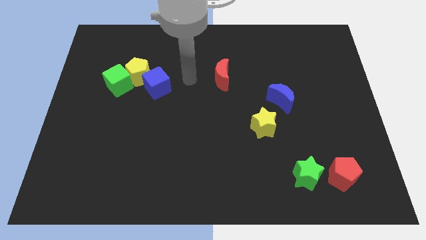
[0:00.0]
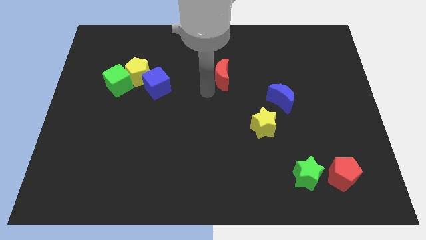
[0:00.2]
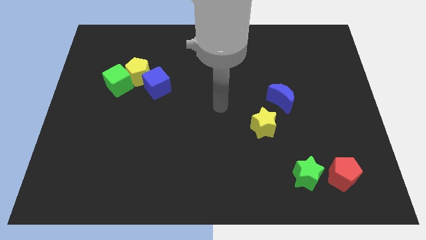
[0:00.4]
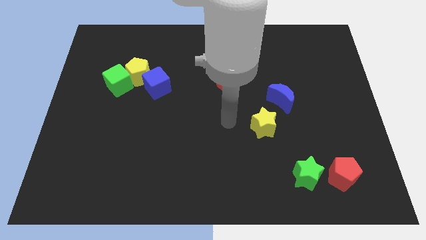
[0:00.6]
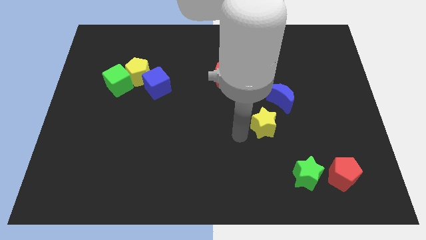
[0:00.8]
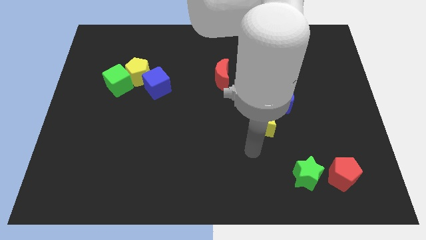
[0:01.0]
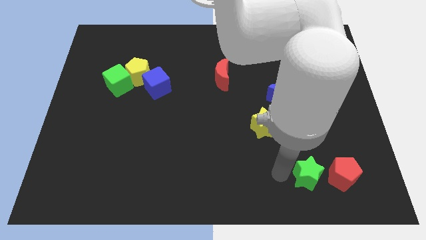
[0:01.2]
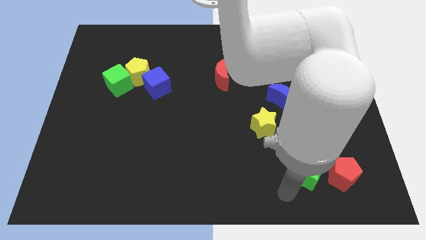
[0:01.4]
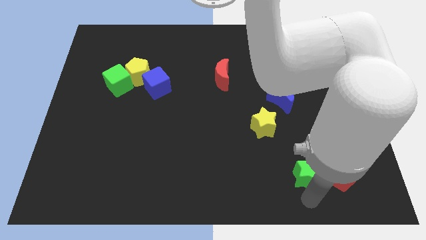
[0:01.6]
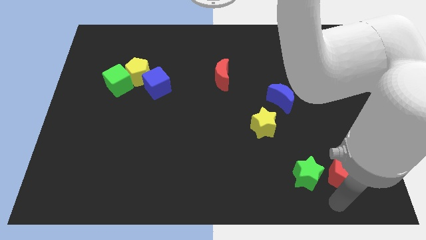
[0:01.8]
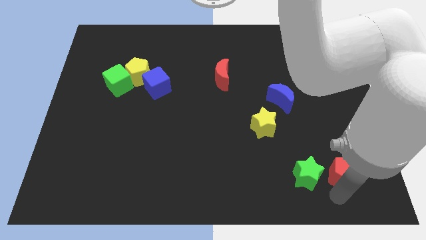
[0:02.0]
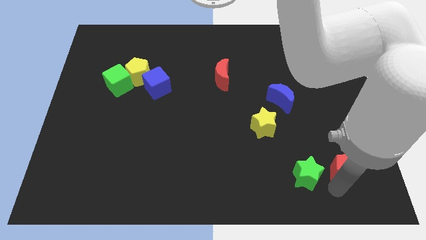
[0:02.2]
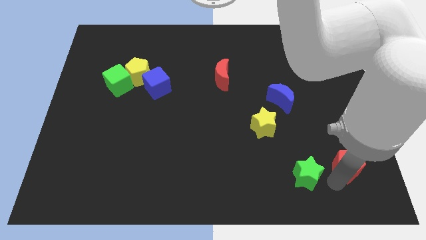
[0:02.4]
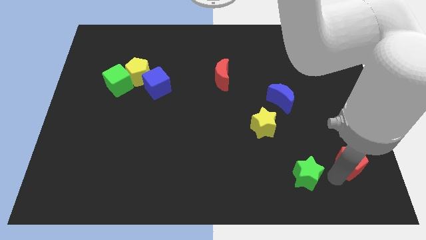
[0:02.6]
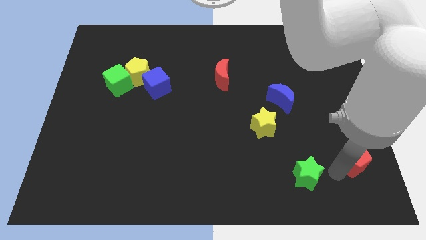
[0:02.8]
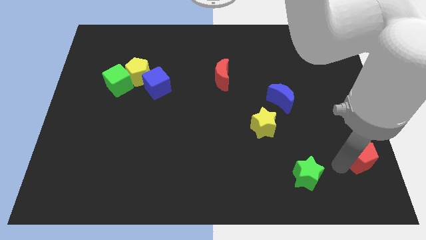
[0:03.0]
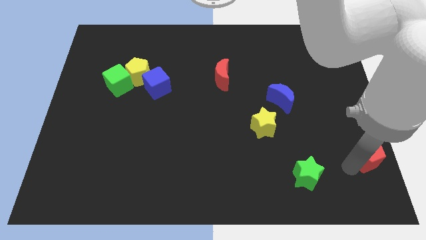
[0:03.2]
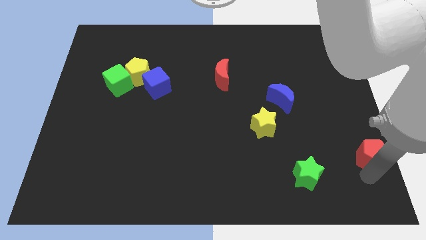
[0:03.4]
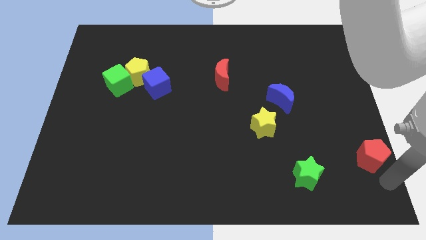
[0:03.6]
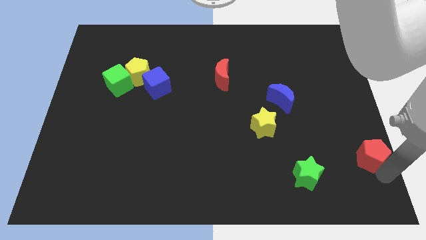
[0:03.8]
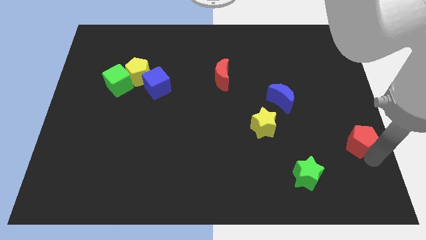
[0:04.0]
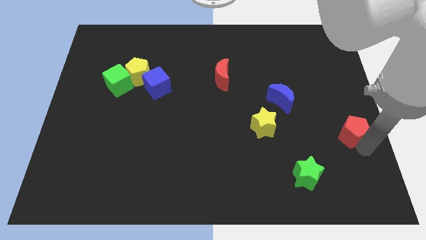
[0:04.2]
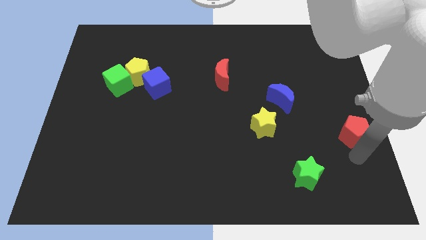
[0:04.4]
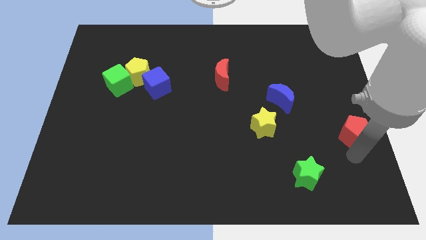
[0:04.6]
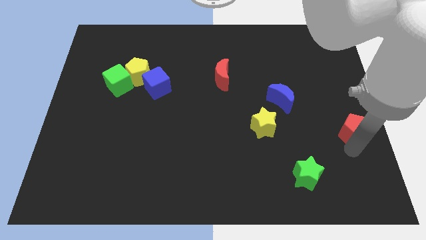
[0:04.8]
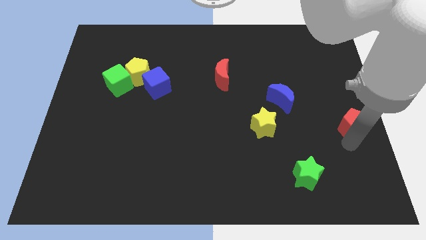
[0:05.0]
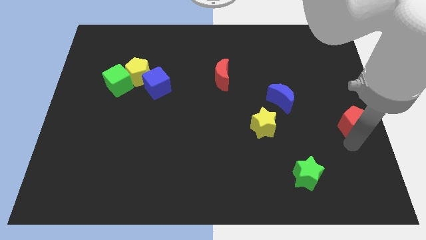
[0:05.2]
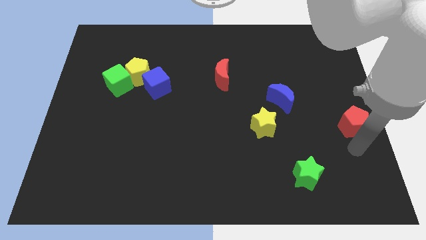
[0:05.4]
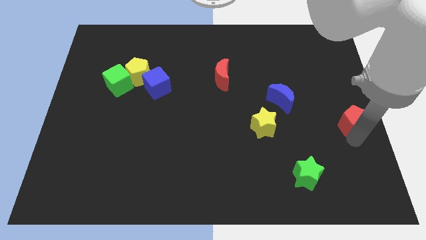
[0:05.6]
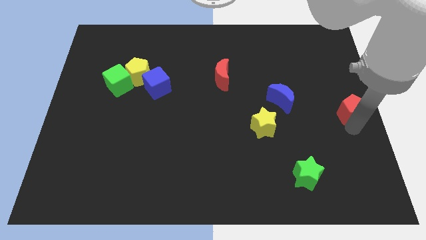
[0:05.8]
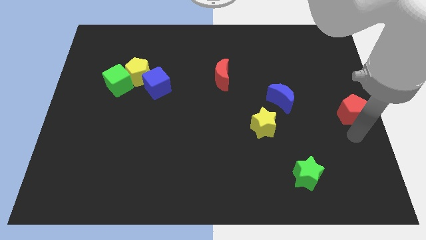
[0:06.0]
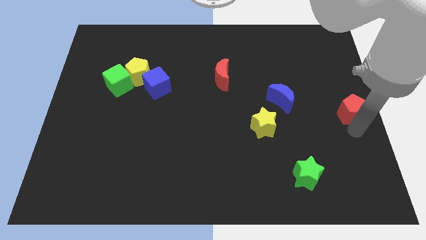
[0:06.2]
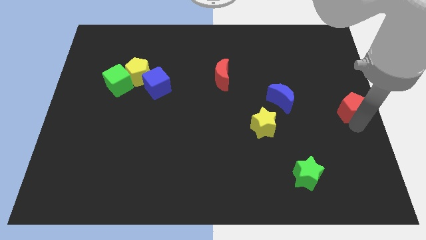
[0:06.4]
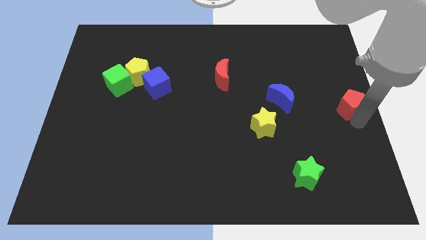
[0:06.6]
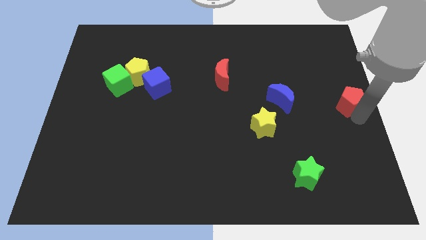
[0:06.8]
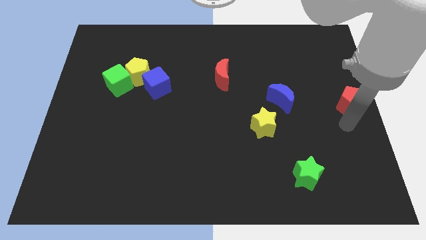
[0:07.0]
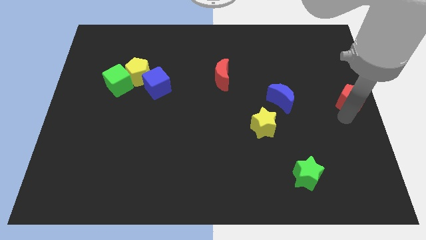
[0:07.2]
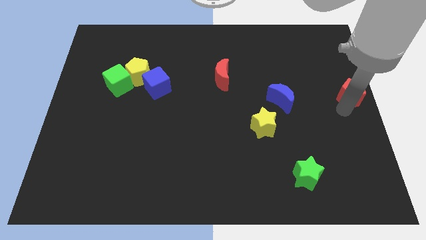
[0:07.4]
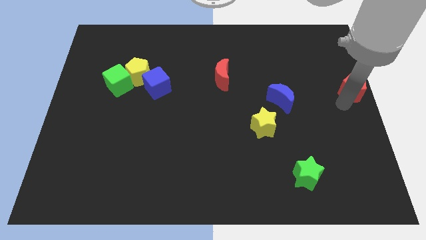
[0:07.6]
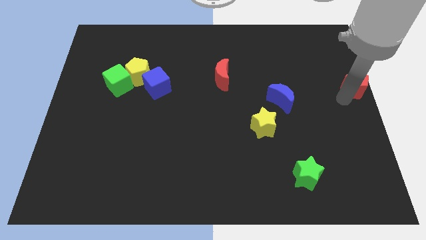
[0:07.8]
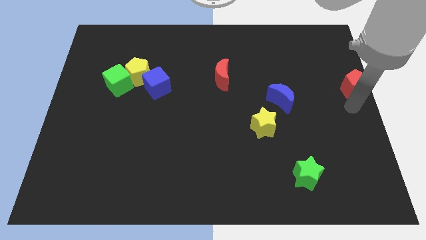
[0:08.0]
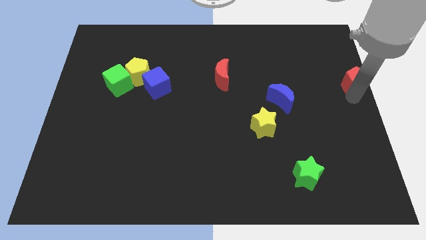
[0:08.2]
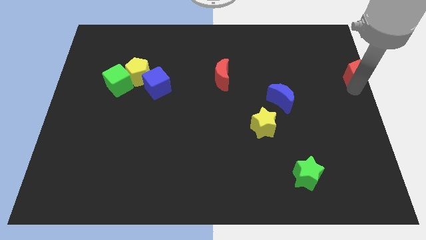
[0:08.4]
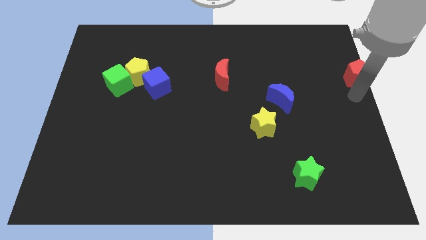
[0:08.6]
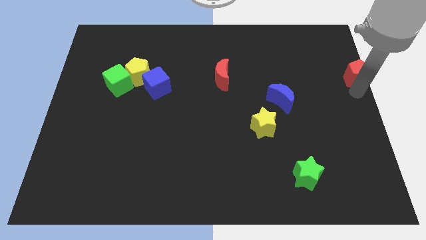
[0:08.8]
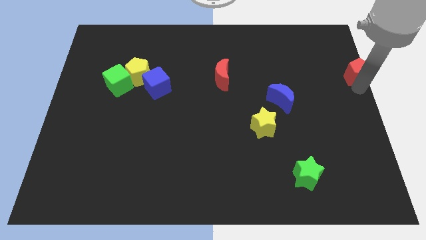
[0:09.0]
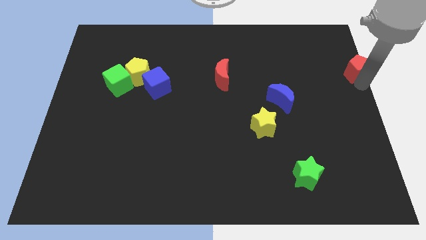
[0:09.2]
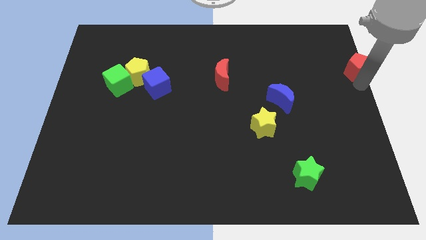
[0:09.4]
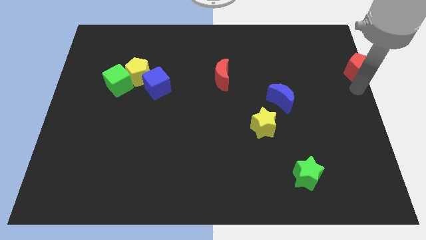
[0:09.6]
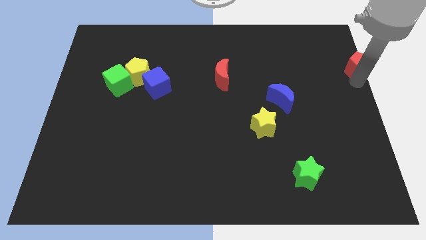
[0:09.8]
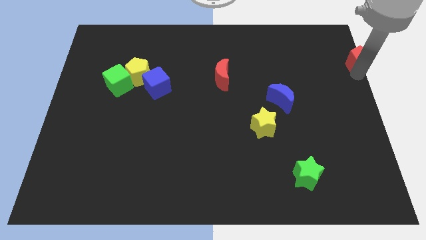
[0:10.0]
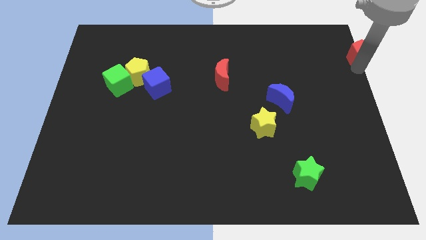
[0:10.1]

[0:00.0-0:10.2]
move the red pentagon to the upper right corner

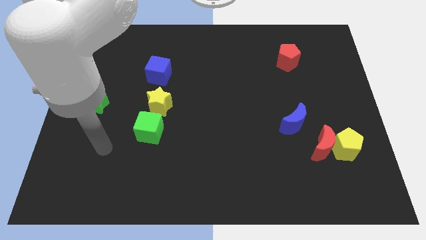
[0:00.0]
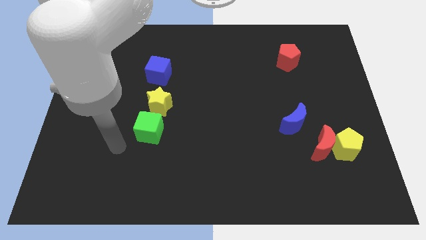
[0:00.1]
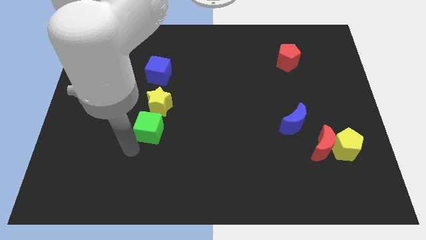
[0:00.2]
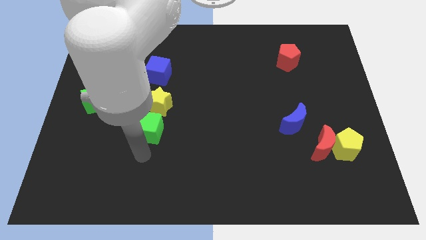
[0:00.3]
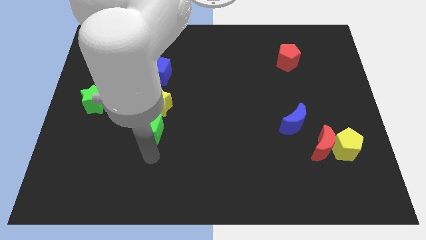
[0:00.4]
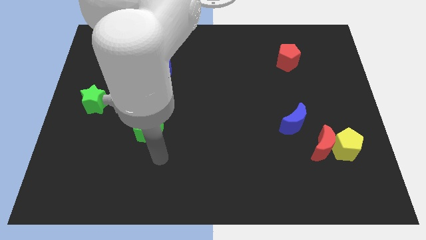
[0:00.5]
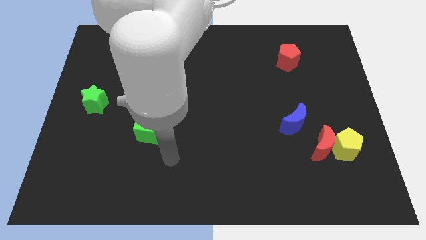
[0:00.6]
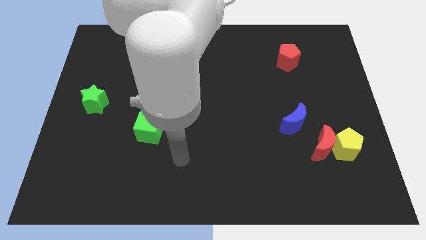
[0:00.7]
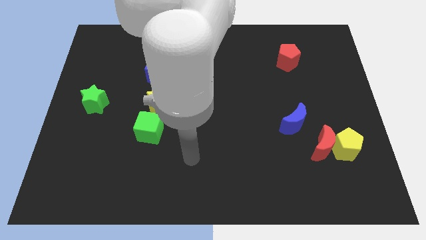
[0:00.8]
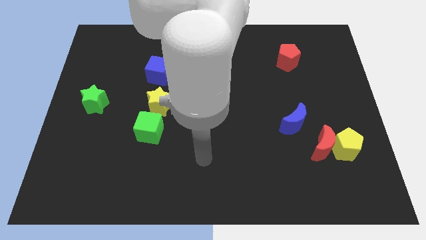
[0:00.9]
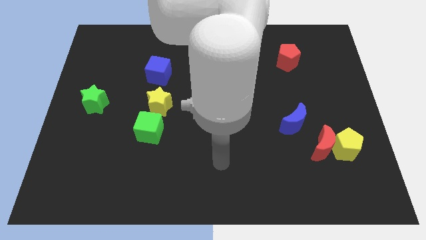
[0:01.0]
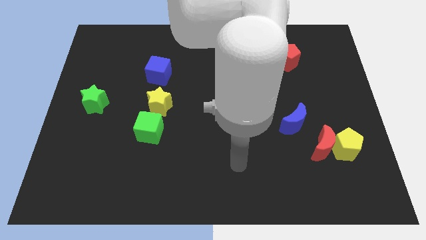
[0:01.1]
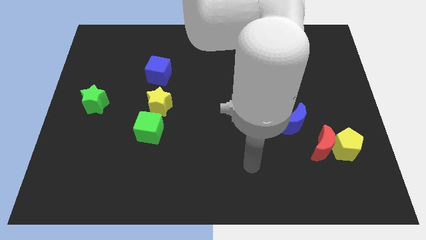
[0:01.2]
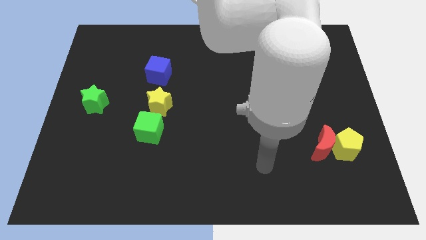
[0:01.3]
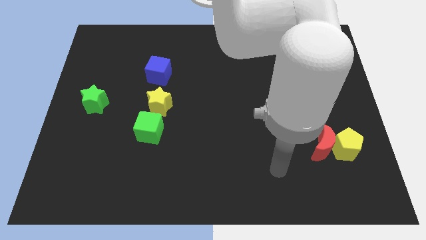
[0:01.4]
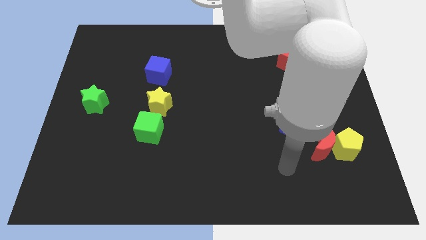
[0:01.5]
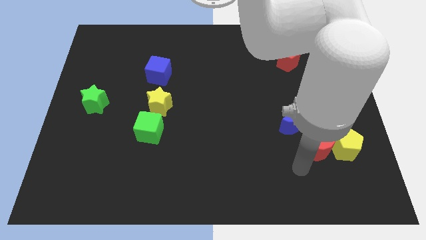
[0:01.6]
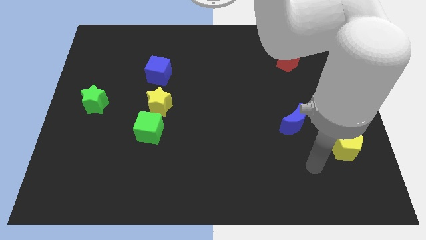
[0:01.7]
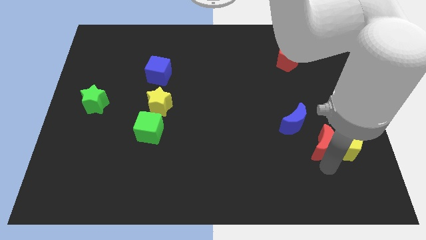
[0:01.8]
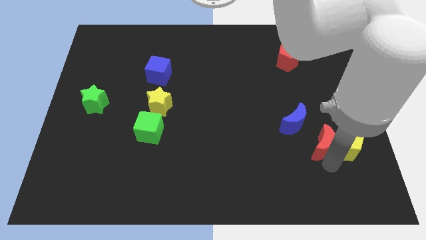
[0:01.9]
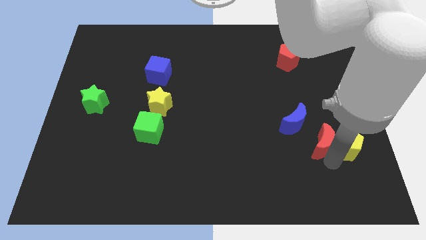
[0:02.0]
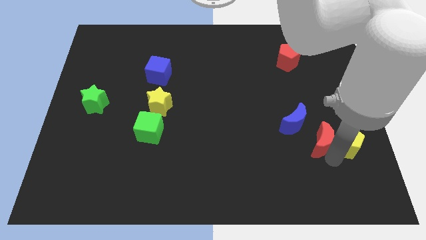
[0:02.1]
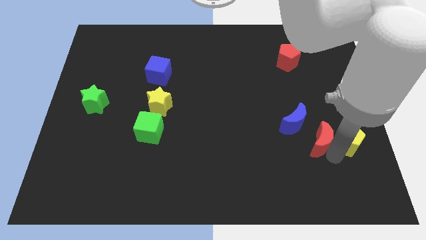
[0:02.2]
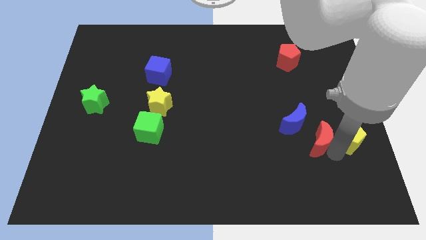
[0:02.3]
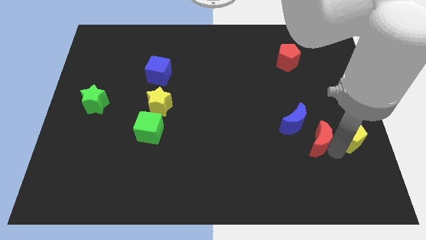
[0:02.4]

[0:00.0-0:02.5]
put the yellow pentagon to the right side of the board
